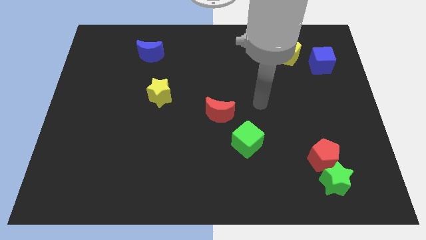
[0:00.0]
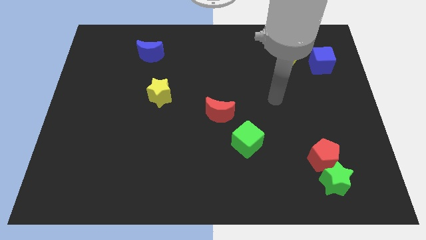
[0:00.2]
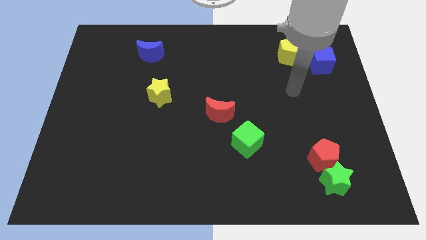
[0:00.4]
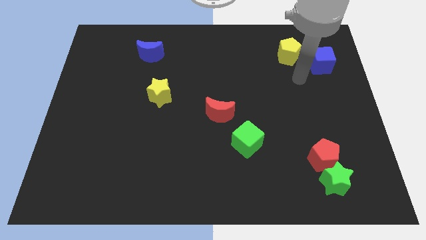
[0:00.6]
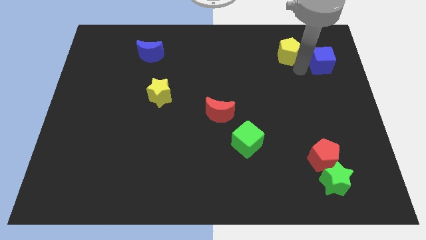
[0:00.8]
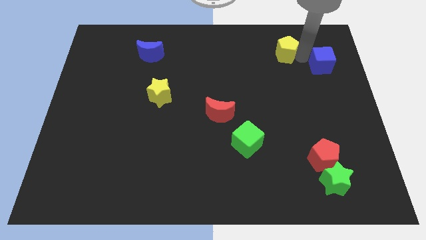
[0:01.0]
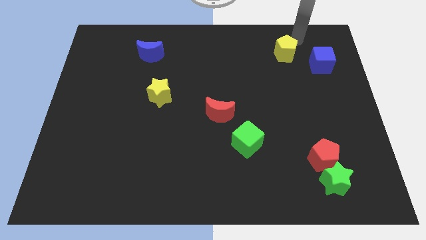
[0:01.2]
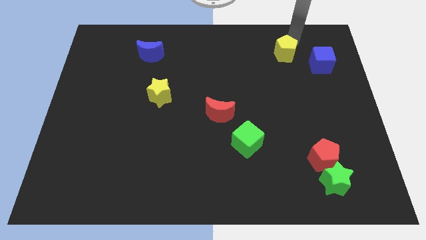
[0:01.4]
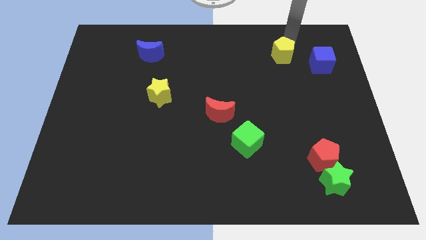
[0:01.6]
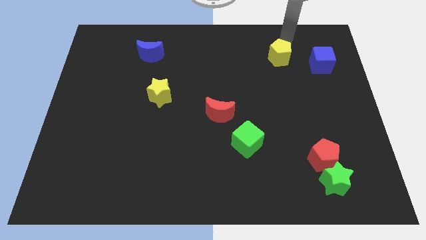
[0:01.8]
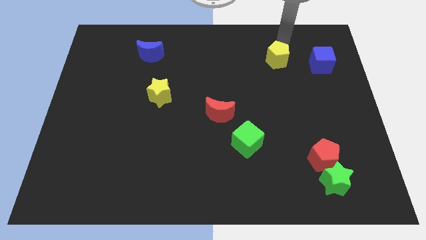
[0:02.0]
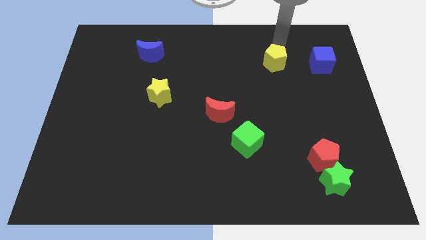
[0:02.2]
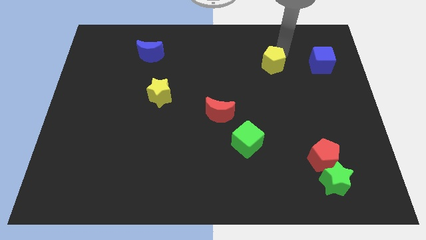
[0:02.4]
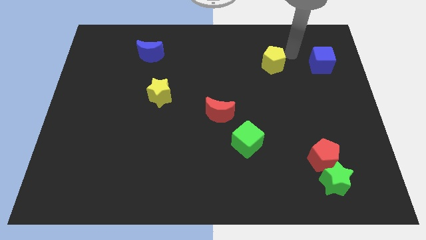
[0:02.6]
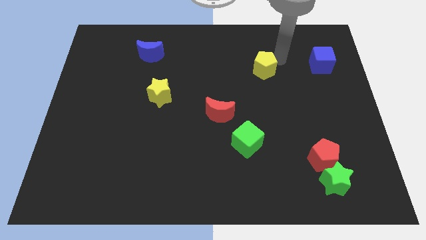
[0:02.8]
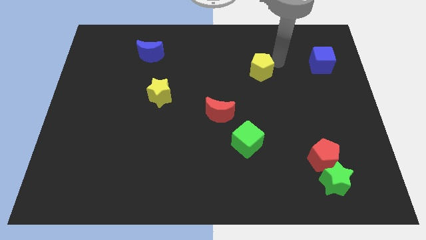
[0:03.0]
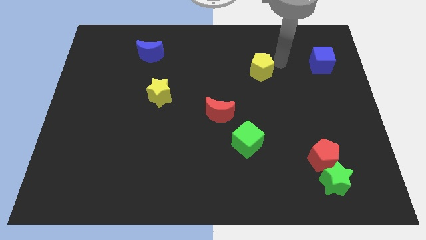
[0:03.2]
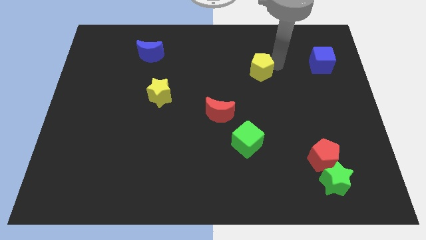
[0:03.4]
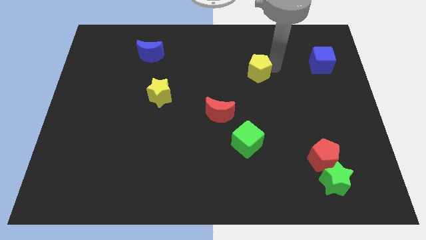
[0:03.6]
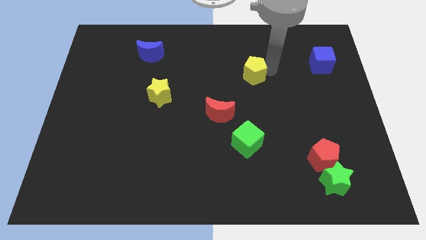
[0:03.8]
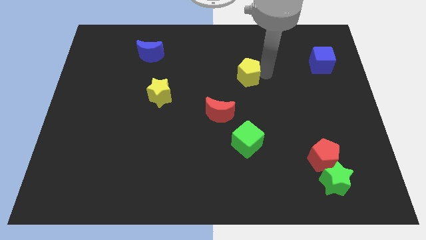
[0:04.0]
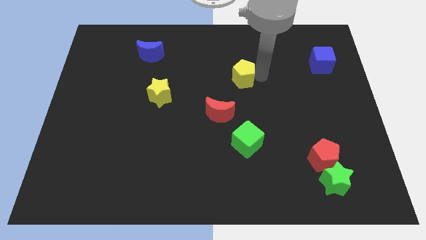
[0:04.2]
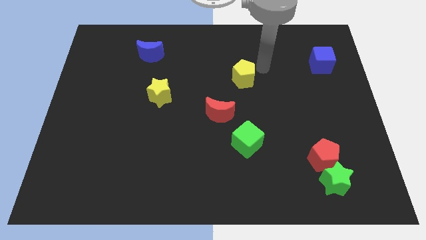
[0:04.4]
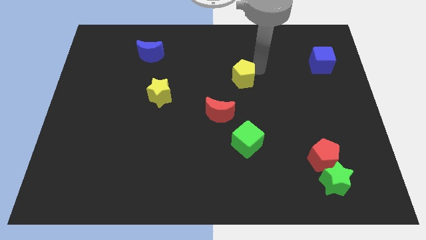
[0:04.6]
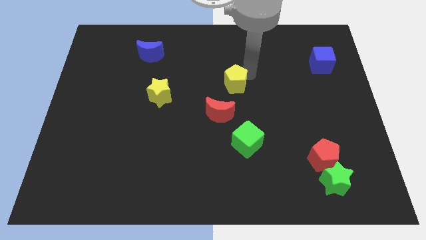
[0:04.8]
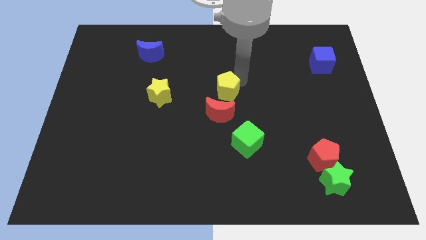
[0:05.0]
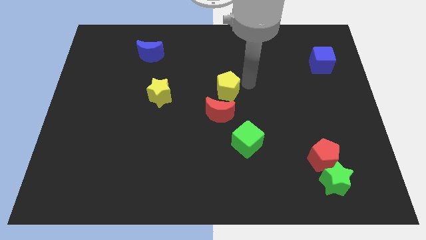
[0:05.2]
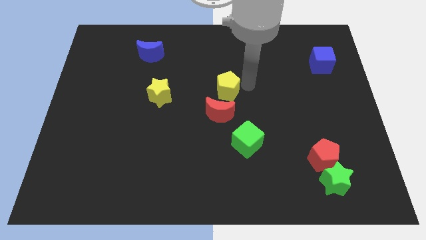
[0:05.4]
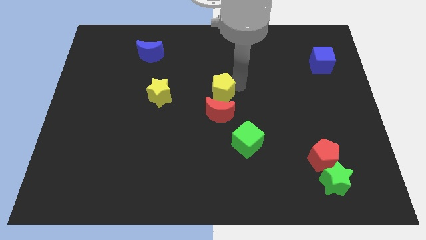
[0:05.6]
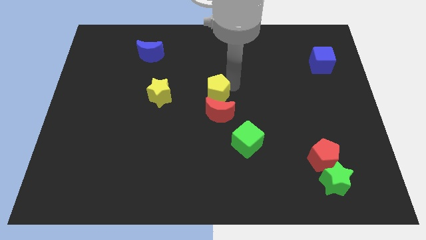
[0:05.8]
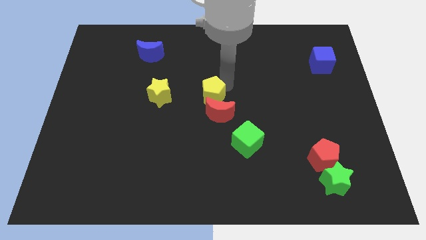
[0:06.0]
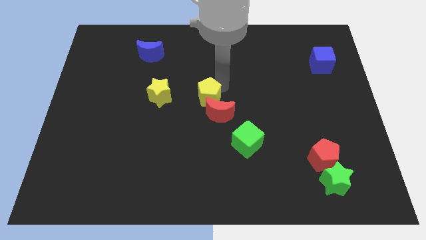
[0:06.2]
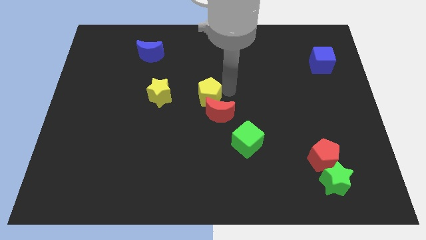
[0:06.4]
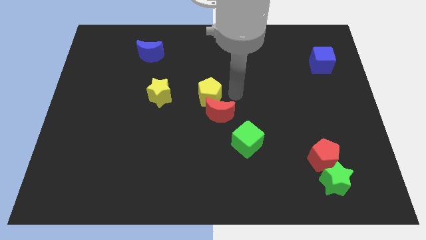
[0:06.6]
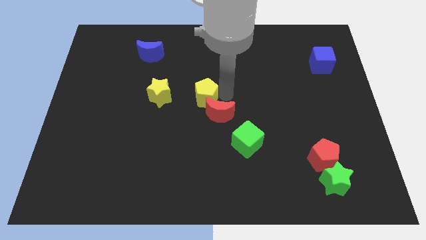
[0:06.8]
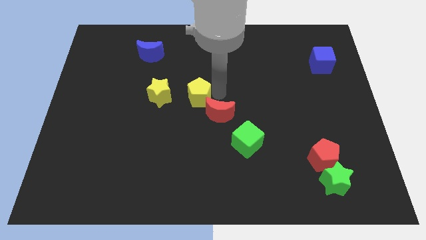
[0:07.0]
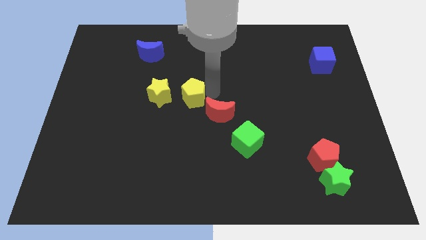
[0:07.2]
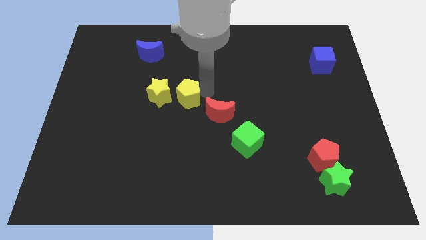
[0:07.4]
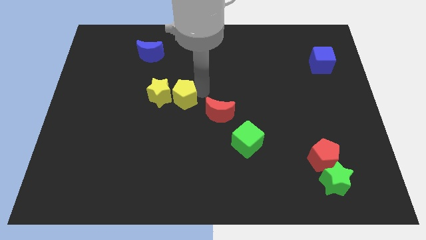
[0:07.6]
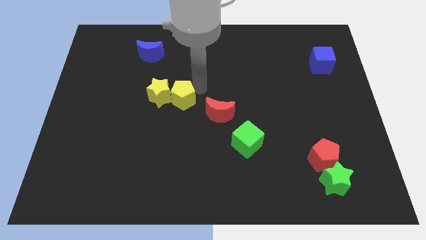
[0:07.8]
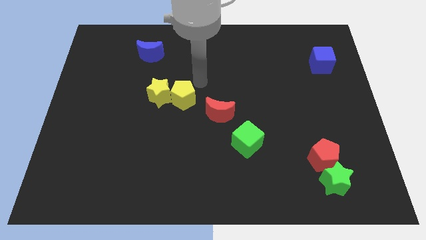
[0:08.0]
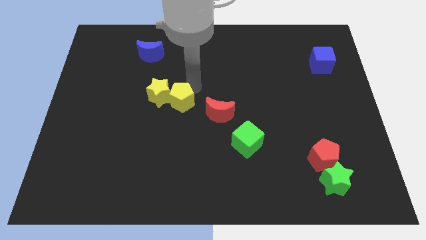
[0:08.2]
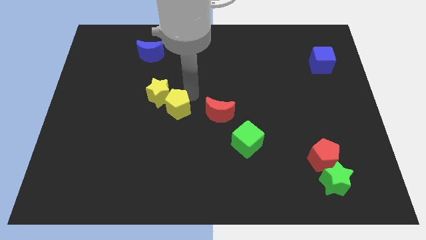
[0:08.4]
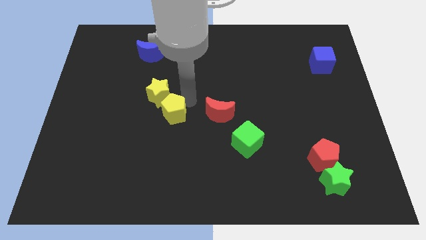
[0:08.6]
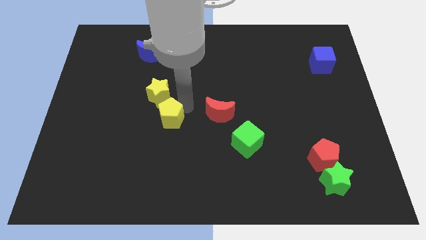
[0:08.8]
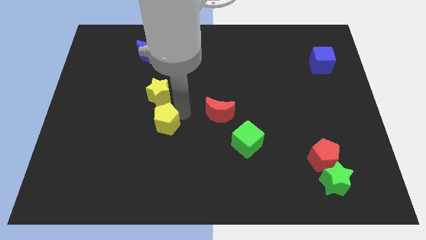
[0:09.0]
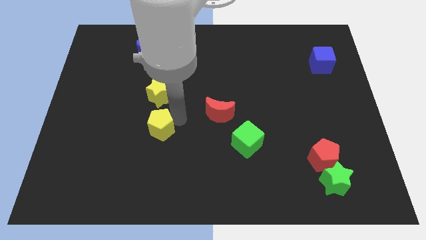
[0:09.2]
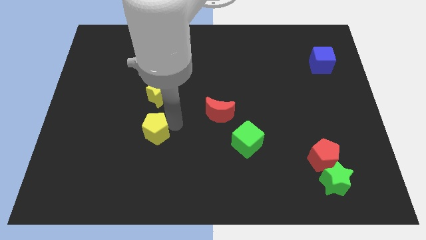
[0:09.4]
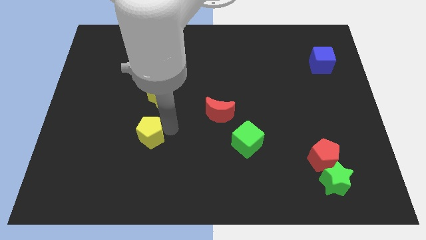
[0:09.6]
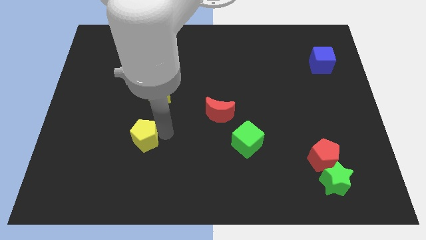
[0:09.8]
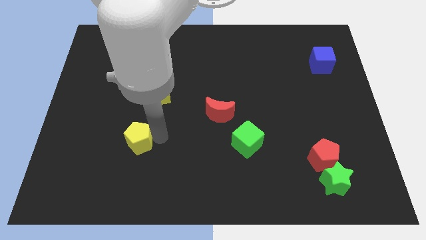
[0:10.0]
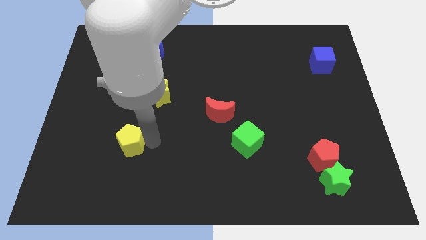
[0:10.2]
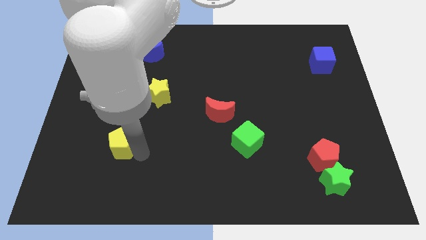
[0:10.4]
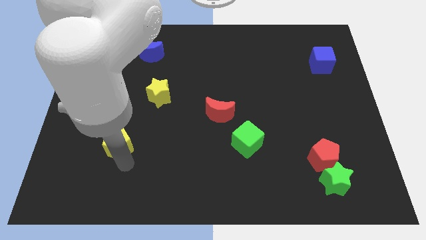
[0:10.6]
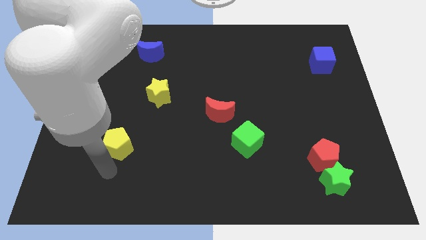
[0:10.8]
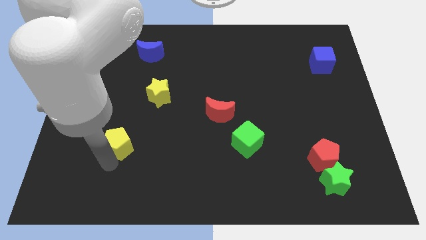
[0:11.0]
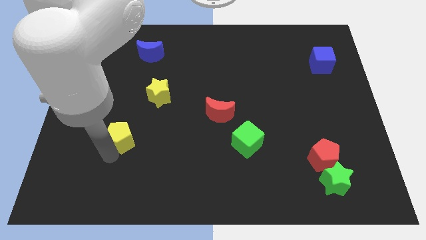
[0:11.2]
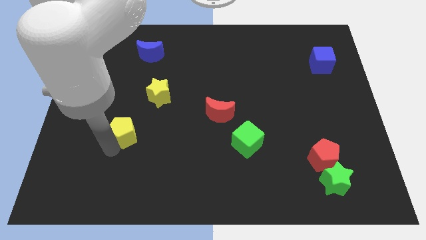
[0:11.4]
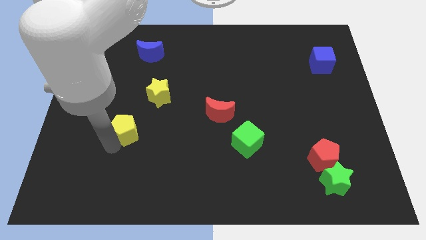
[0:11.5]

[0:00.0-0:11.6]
slide the yellow pentagon to the bottom left of the yellow star

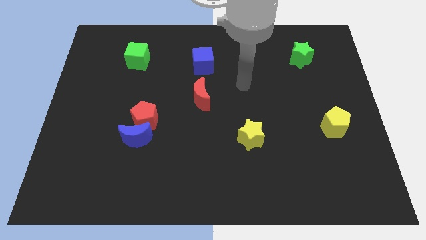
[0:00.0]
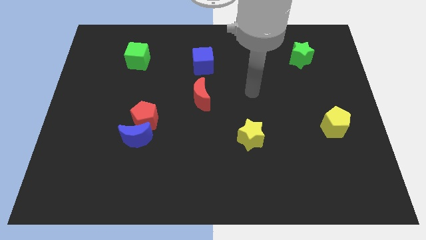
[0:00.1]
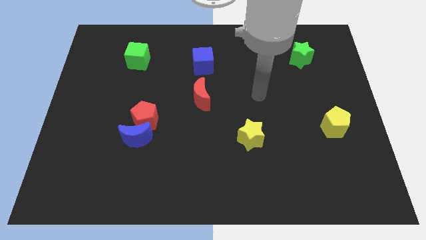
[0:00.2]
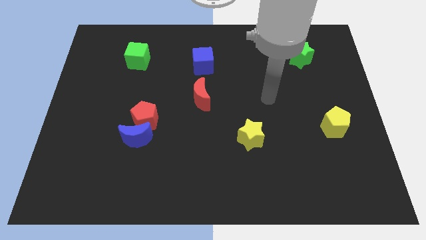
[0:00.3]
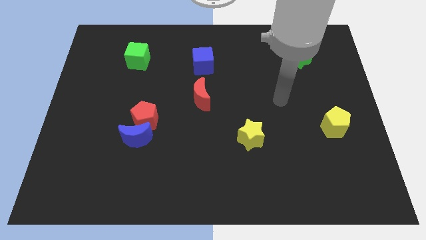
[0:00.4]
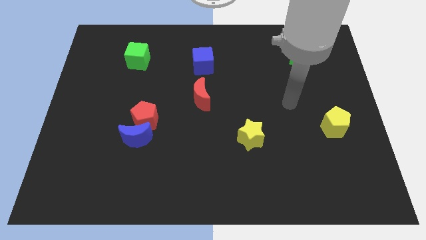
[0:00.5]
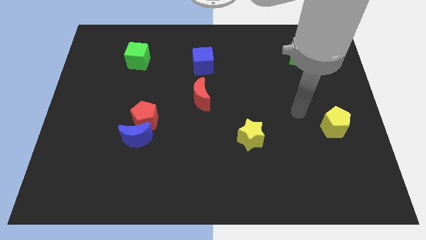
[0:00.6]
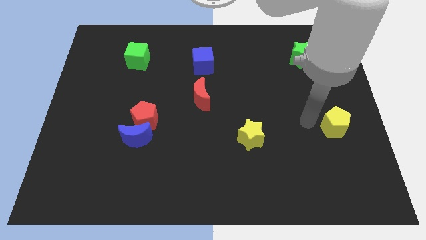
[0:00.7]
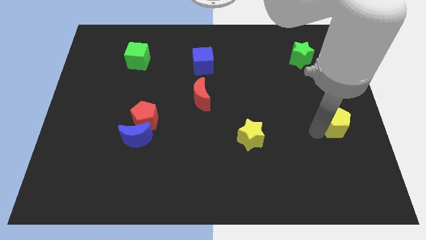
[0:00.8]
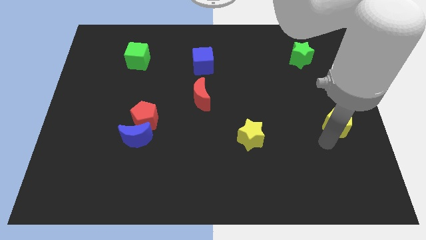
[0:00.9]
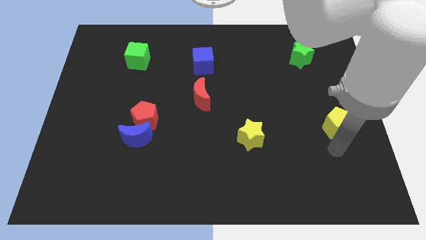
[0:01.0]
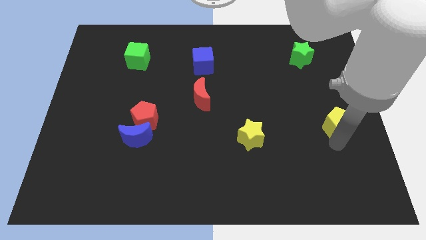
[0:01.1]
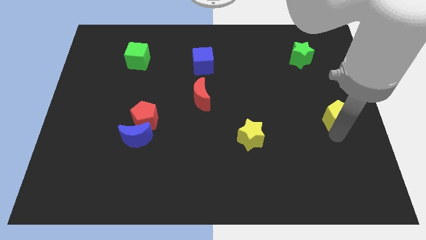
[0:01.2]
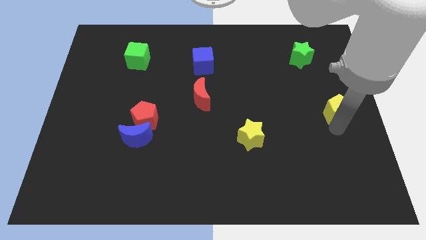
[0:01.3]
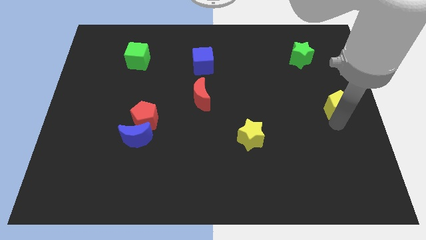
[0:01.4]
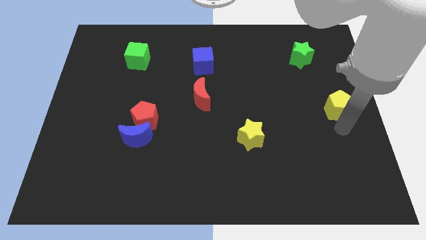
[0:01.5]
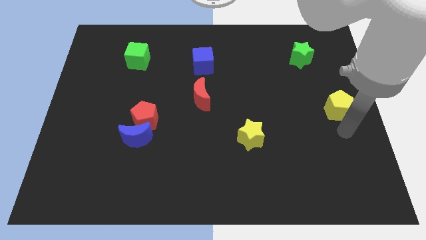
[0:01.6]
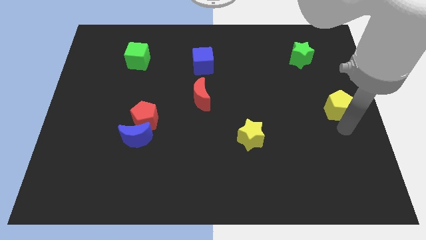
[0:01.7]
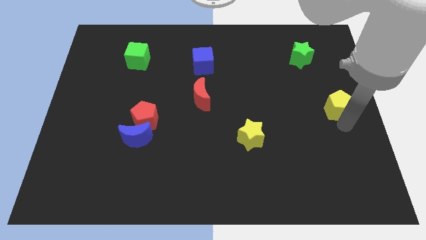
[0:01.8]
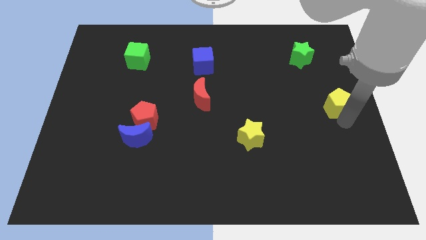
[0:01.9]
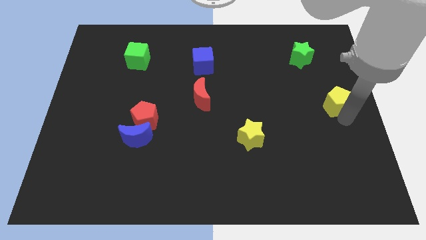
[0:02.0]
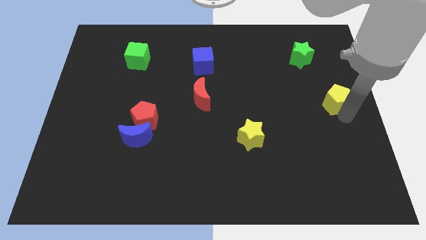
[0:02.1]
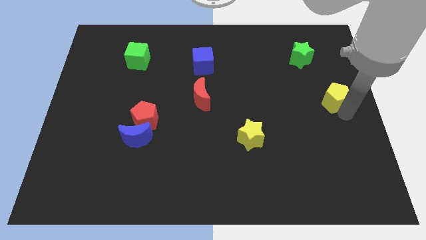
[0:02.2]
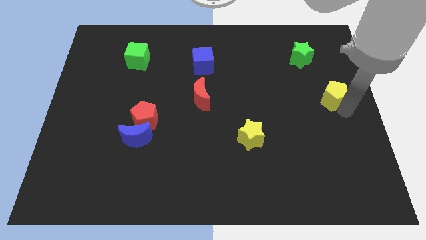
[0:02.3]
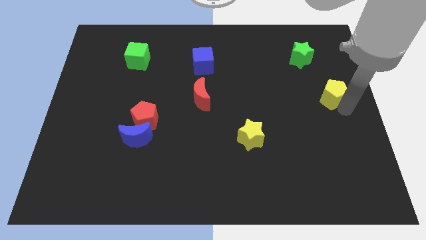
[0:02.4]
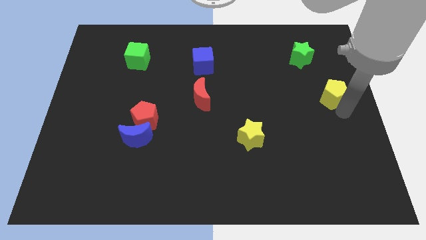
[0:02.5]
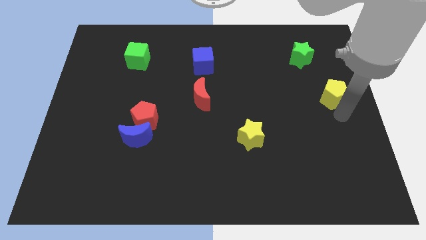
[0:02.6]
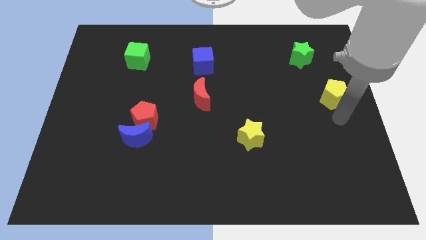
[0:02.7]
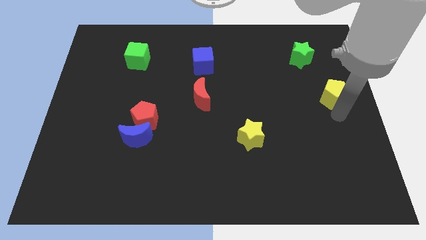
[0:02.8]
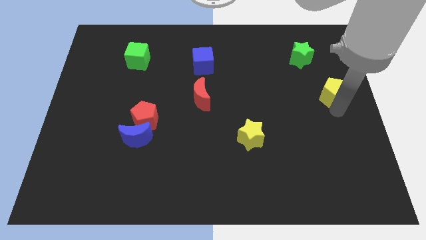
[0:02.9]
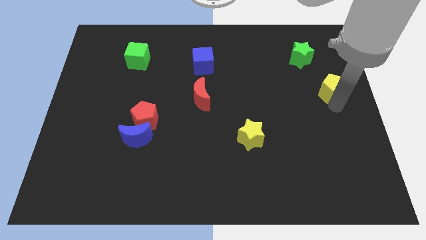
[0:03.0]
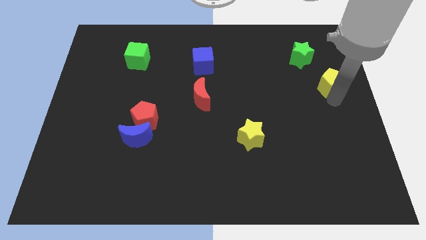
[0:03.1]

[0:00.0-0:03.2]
move the yellow pentagon to the bottom right side of the green star
